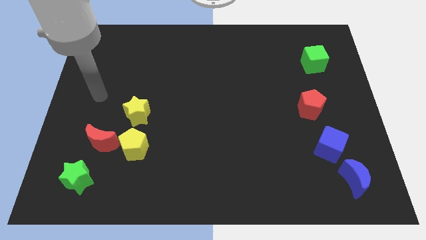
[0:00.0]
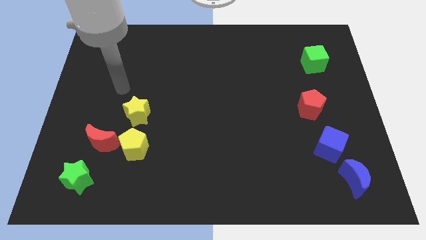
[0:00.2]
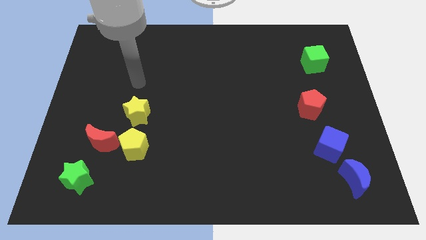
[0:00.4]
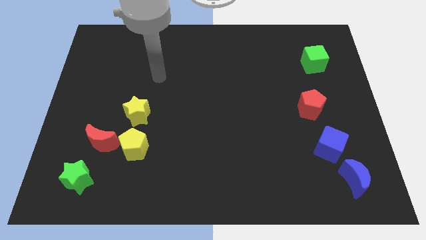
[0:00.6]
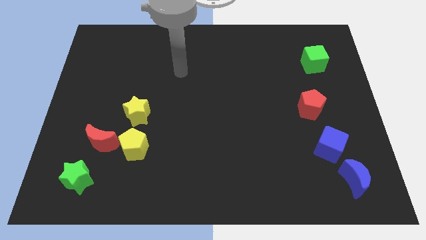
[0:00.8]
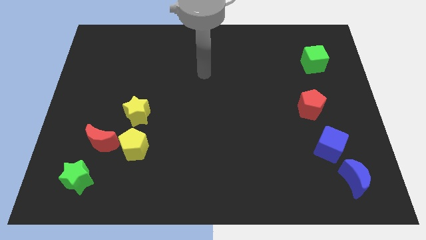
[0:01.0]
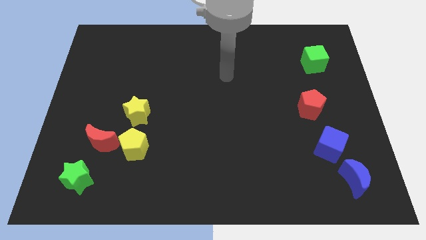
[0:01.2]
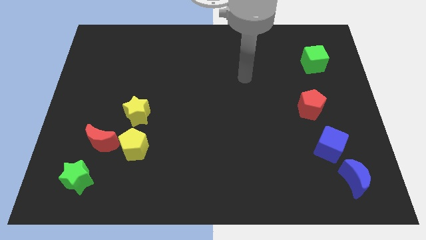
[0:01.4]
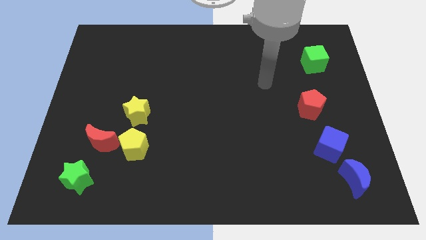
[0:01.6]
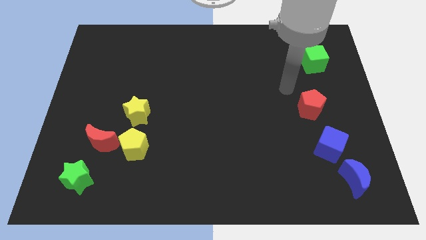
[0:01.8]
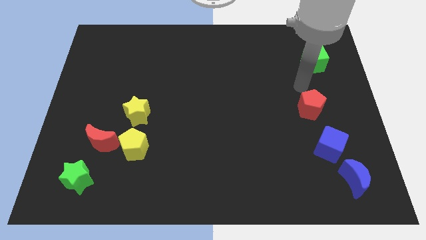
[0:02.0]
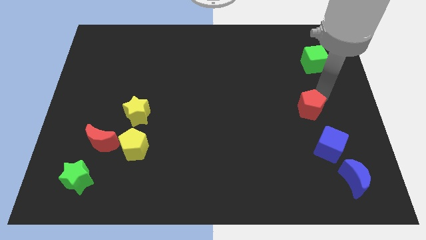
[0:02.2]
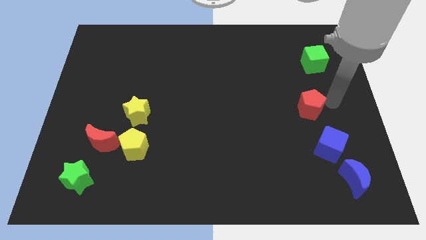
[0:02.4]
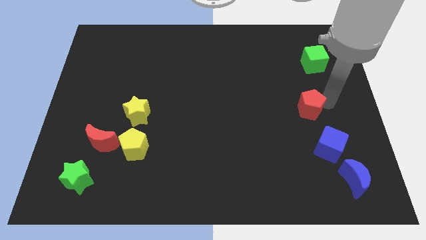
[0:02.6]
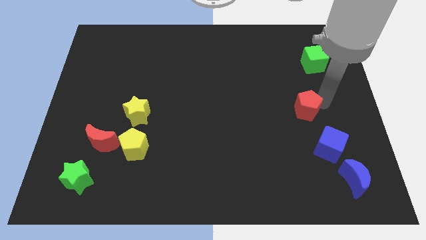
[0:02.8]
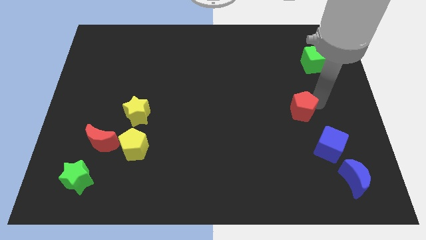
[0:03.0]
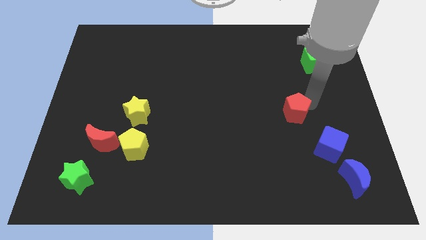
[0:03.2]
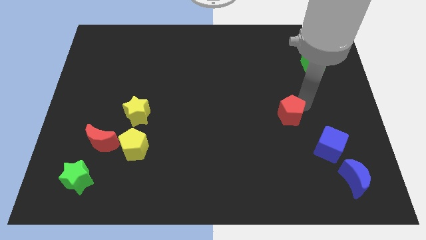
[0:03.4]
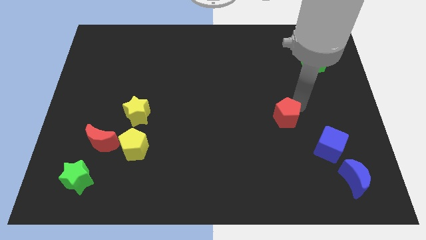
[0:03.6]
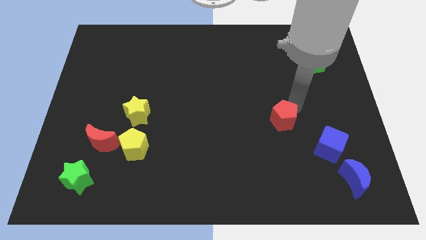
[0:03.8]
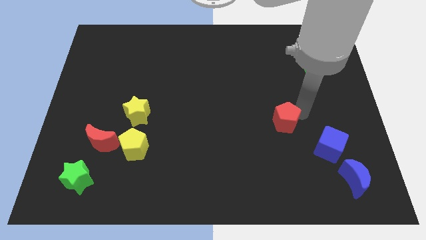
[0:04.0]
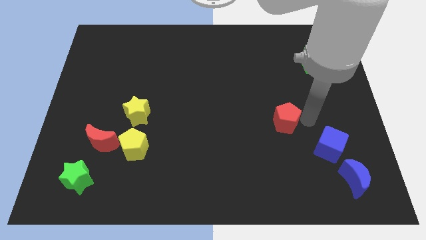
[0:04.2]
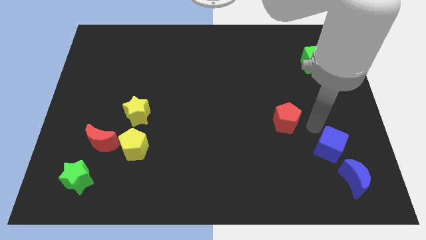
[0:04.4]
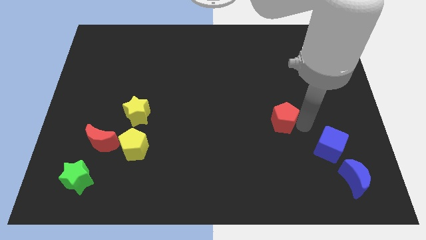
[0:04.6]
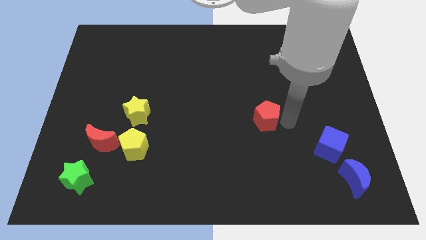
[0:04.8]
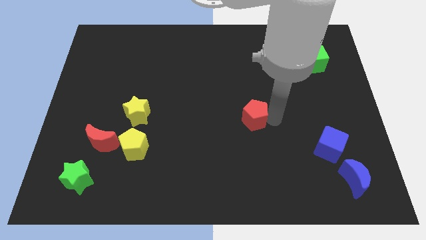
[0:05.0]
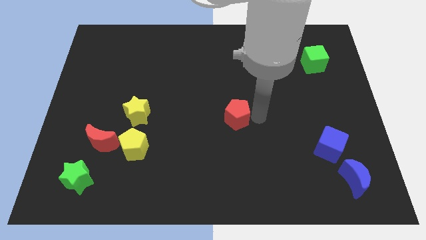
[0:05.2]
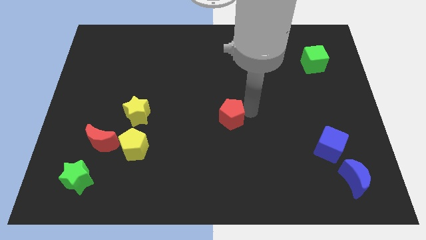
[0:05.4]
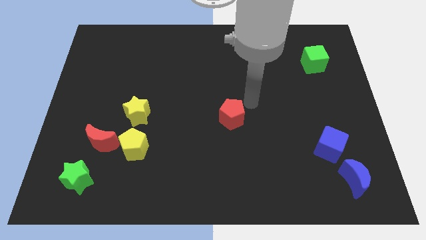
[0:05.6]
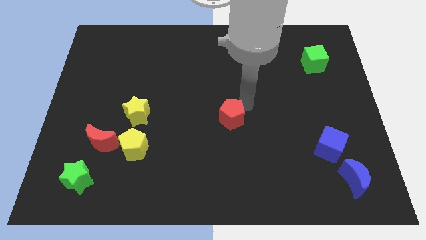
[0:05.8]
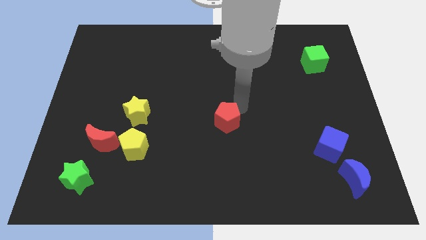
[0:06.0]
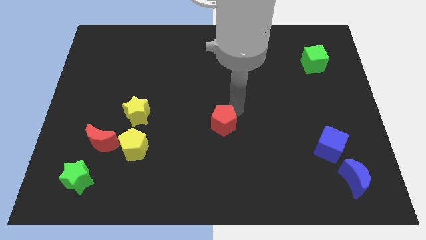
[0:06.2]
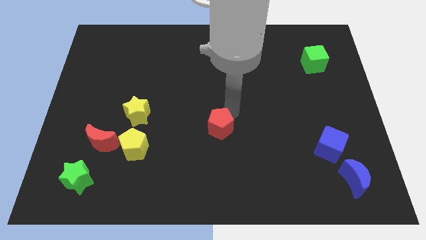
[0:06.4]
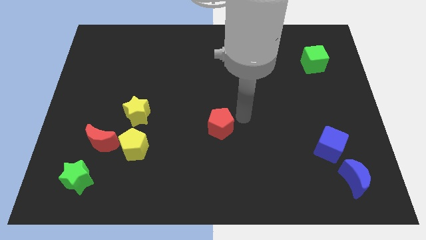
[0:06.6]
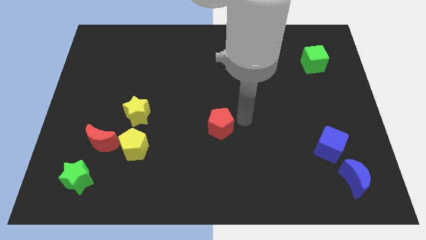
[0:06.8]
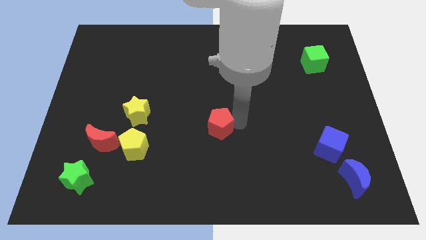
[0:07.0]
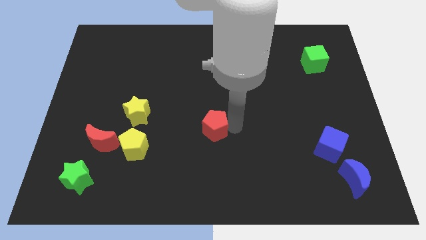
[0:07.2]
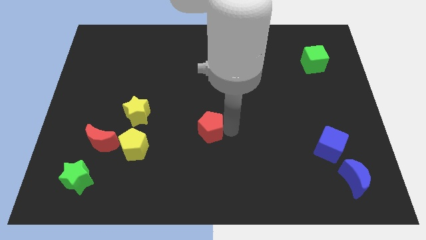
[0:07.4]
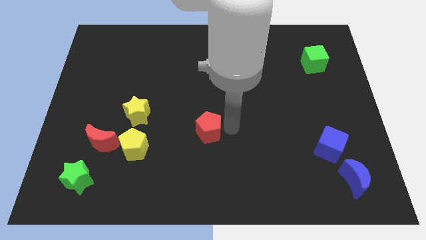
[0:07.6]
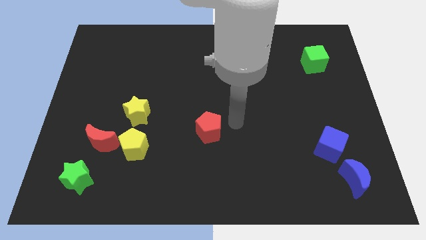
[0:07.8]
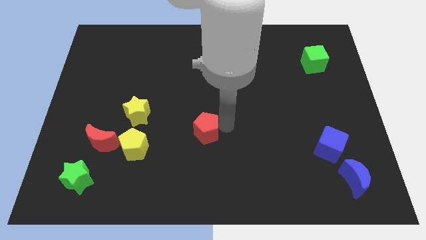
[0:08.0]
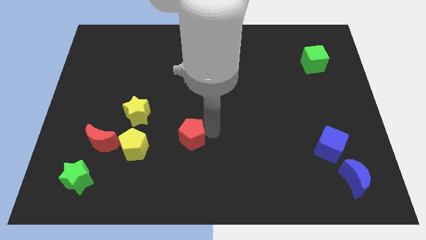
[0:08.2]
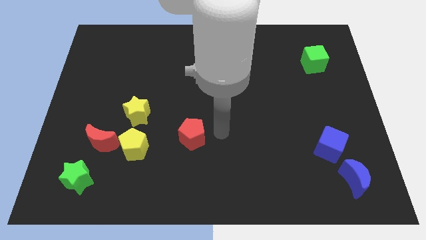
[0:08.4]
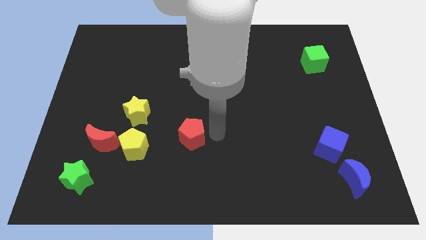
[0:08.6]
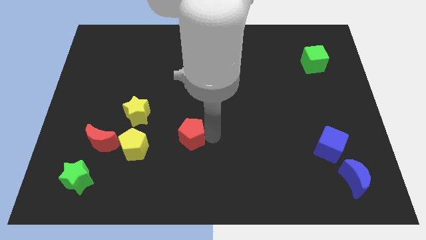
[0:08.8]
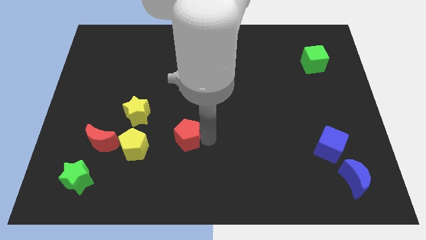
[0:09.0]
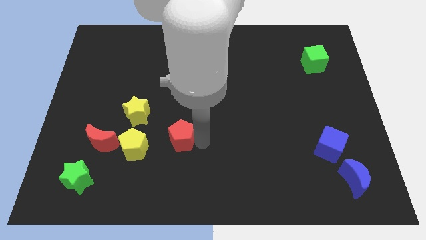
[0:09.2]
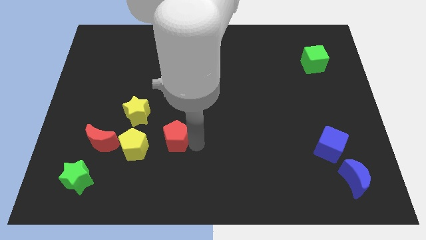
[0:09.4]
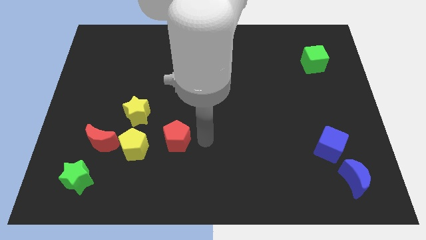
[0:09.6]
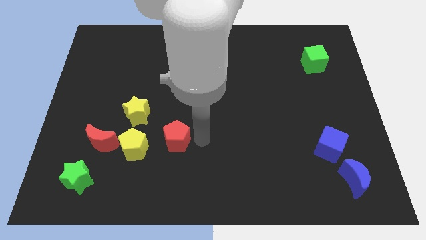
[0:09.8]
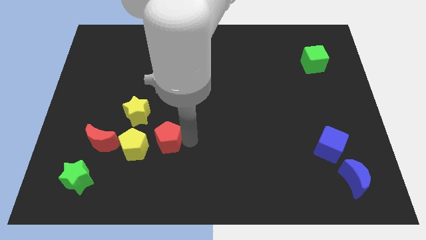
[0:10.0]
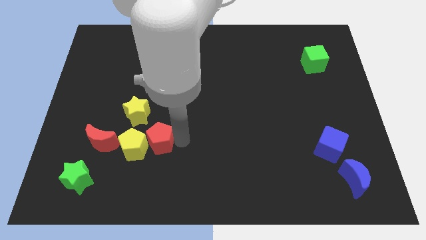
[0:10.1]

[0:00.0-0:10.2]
slide the red pentagon next to the yellow pentagon

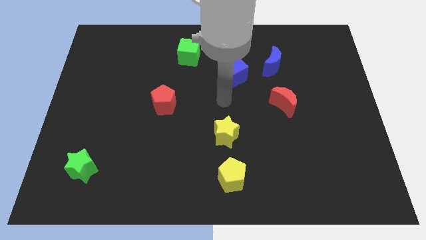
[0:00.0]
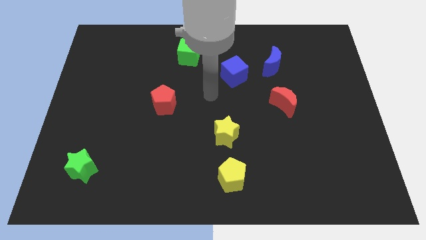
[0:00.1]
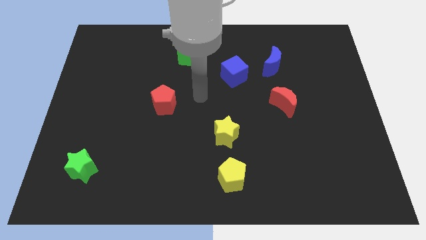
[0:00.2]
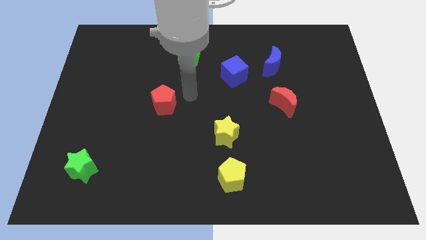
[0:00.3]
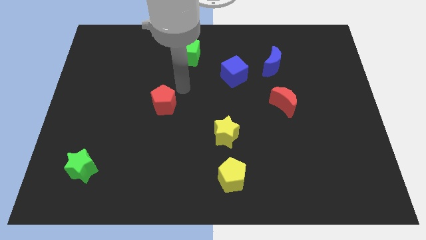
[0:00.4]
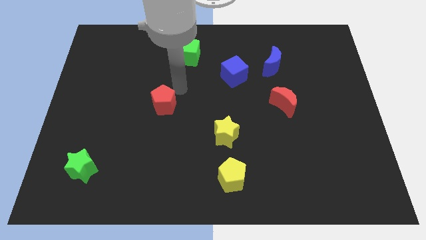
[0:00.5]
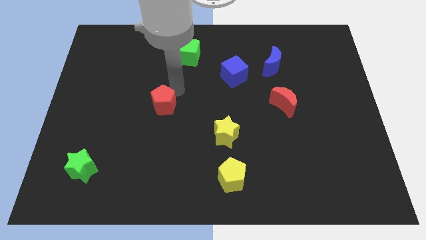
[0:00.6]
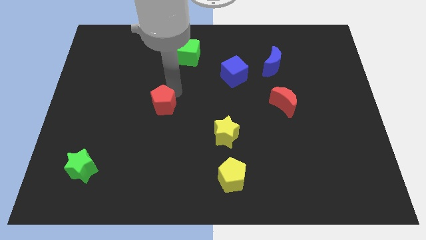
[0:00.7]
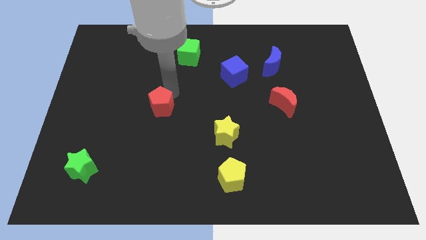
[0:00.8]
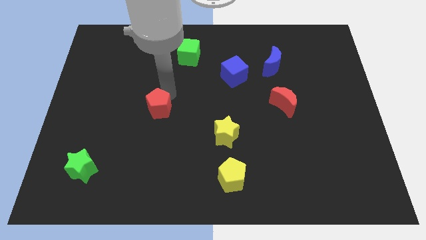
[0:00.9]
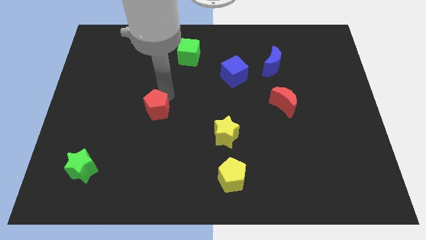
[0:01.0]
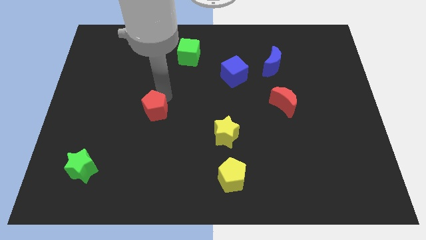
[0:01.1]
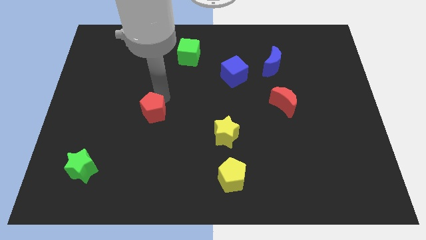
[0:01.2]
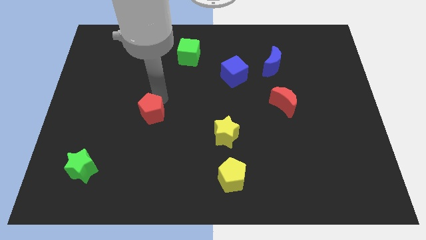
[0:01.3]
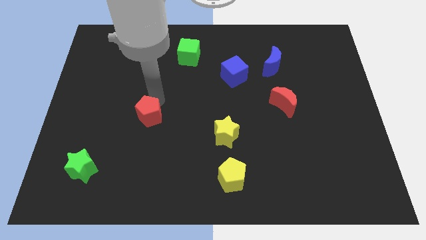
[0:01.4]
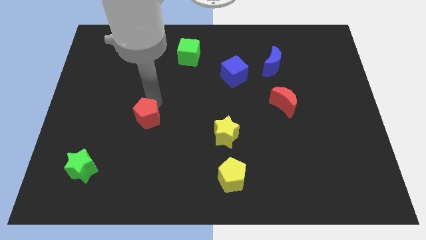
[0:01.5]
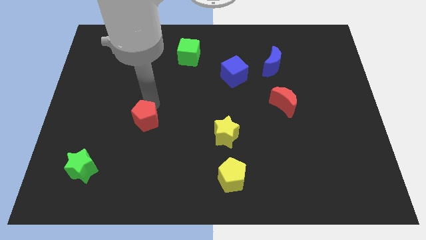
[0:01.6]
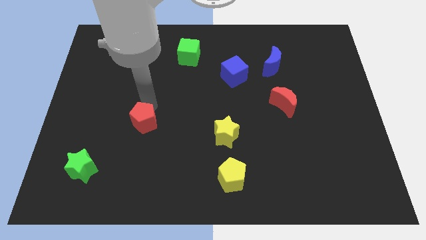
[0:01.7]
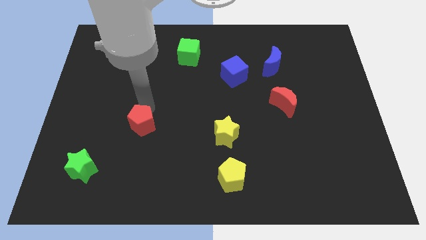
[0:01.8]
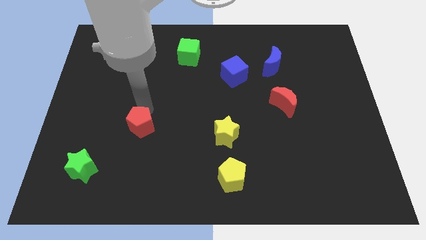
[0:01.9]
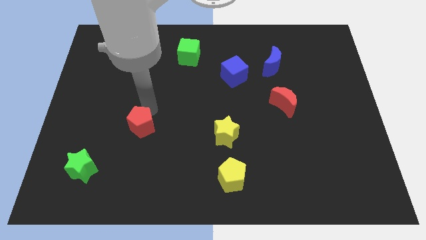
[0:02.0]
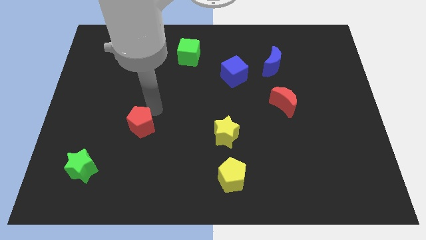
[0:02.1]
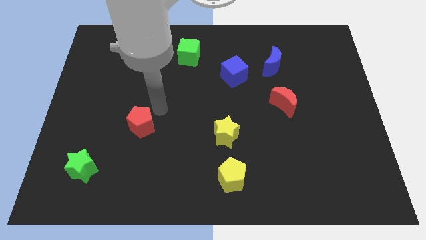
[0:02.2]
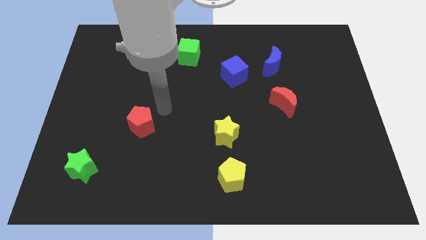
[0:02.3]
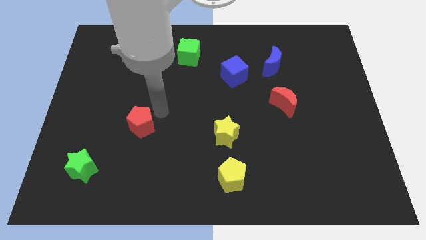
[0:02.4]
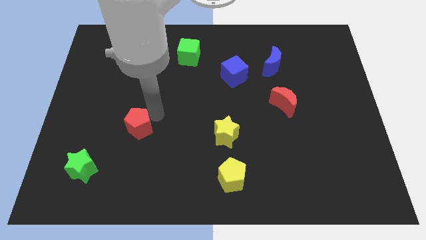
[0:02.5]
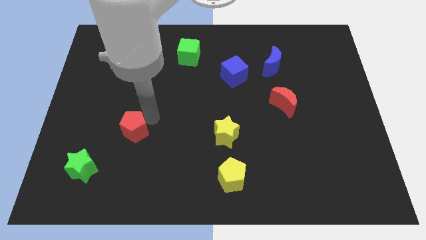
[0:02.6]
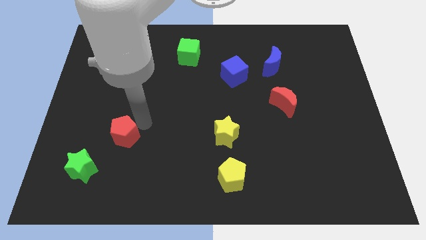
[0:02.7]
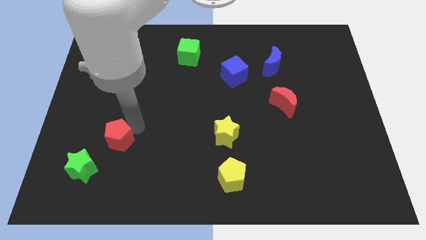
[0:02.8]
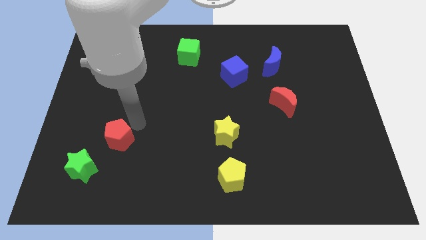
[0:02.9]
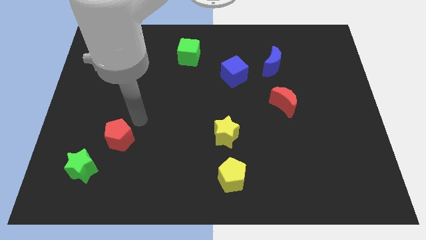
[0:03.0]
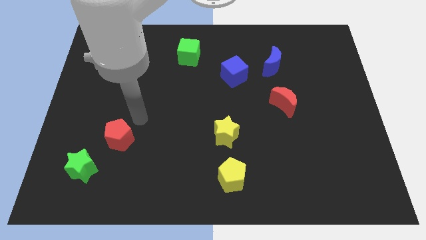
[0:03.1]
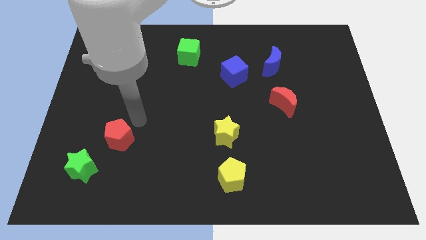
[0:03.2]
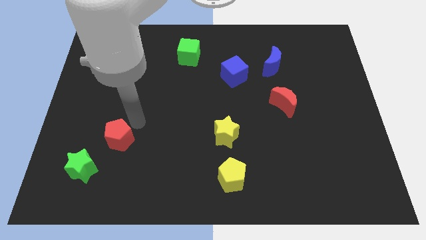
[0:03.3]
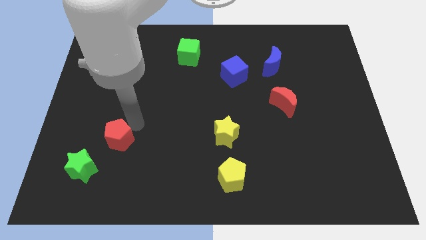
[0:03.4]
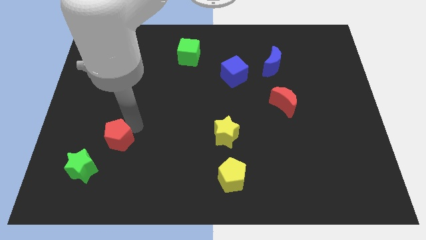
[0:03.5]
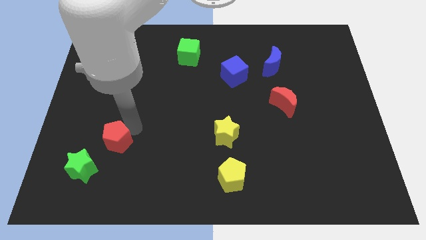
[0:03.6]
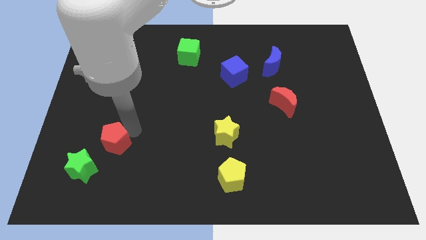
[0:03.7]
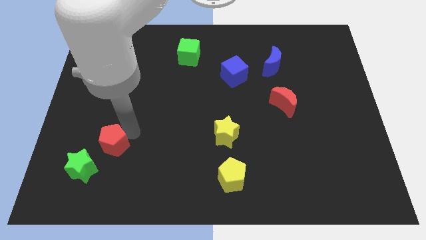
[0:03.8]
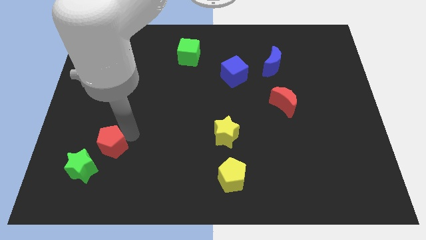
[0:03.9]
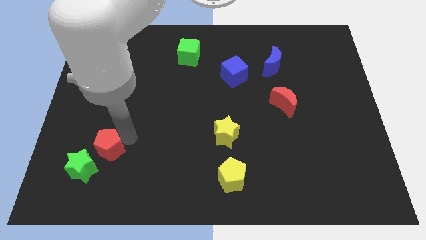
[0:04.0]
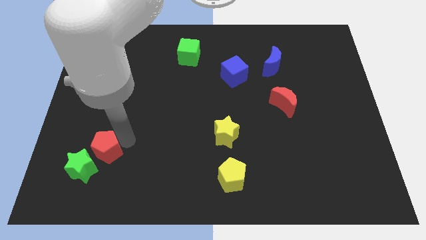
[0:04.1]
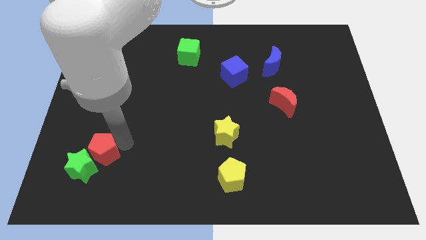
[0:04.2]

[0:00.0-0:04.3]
put the red pentagon close to the green star
